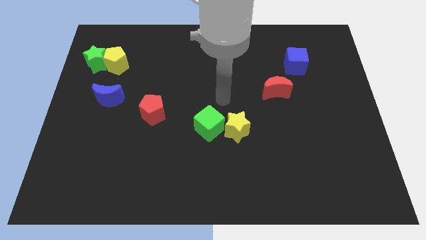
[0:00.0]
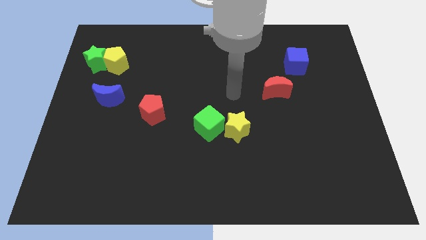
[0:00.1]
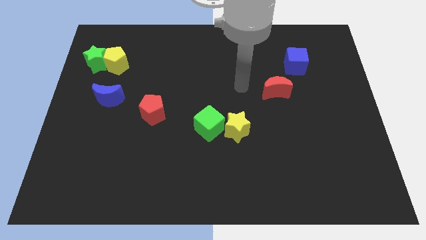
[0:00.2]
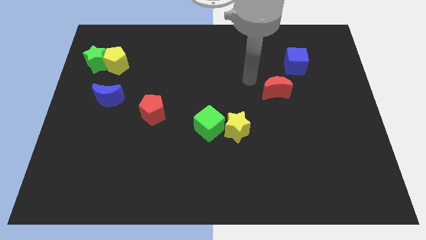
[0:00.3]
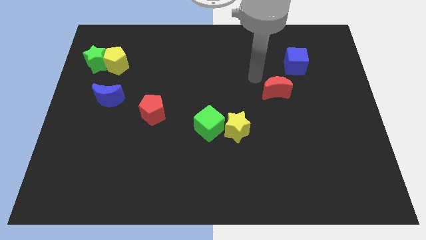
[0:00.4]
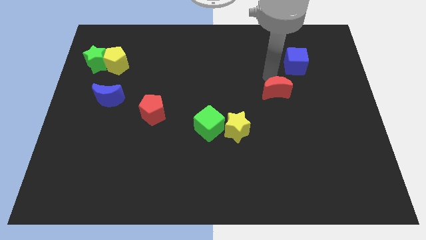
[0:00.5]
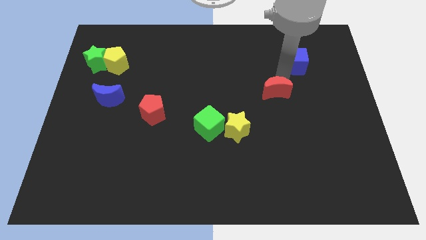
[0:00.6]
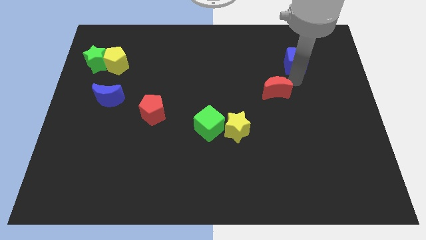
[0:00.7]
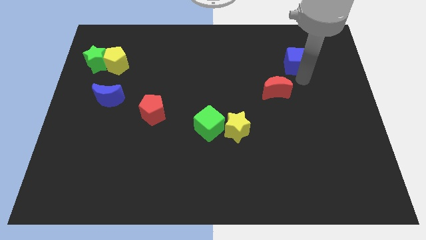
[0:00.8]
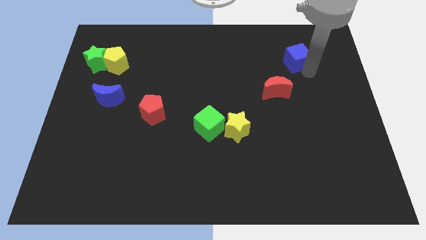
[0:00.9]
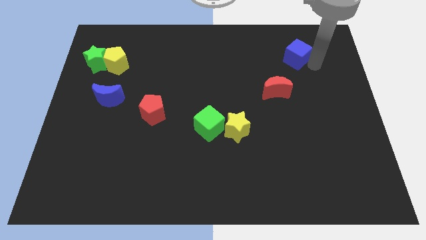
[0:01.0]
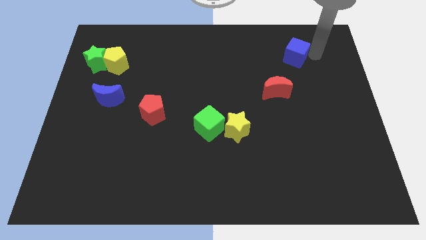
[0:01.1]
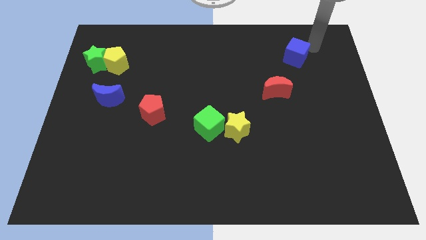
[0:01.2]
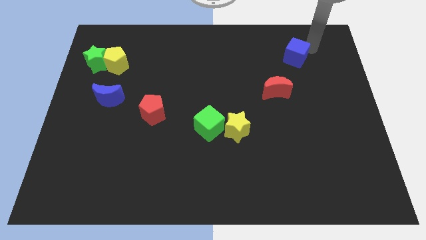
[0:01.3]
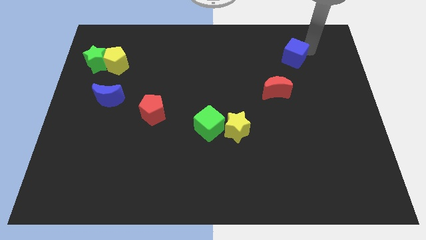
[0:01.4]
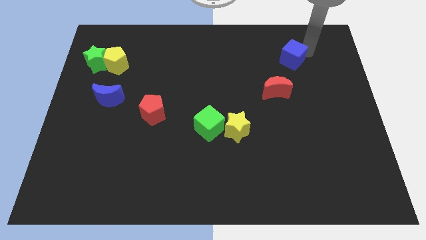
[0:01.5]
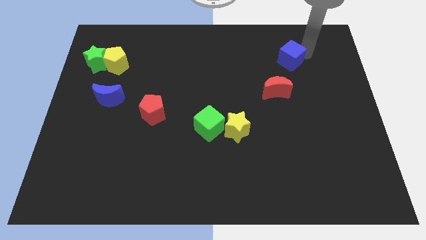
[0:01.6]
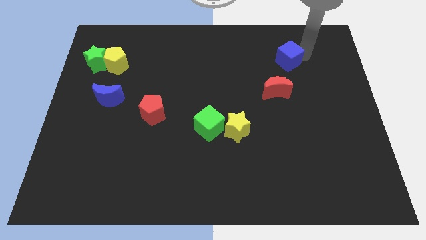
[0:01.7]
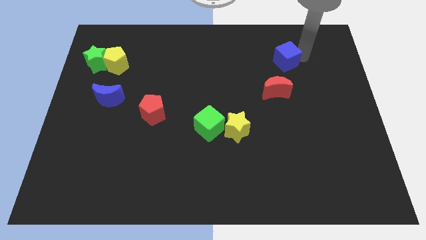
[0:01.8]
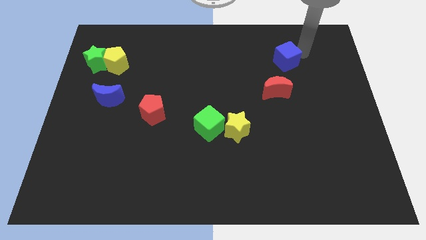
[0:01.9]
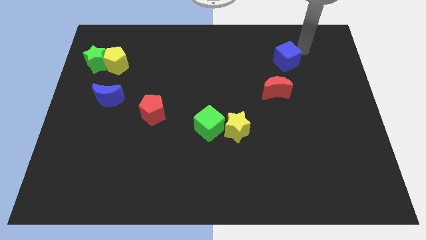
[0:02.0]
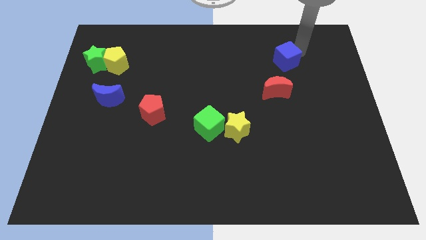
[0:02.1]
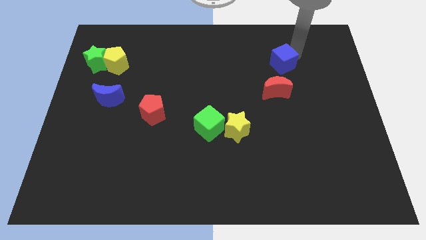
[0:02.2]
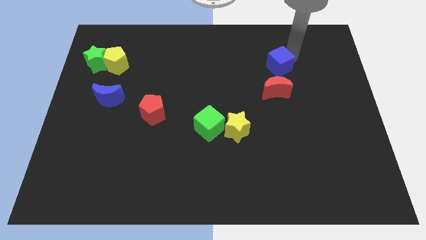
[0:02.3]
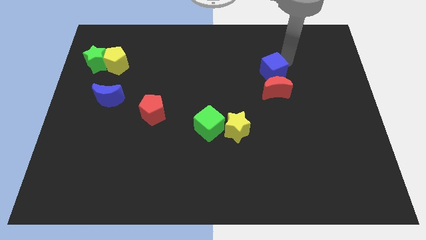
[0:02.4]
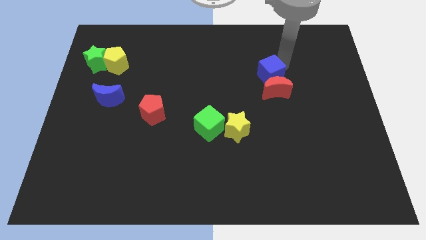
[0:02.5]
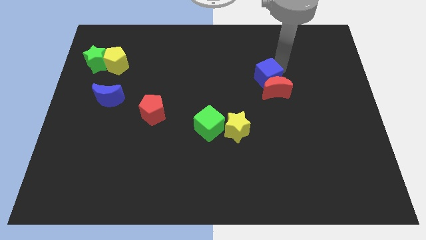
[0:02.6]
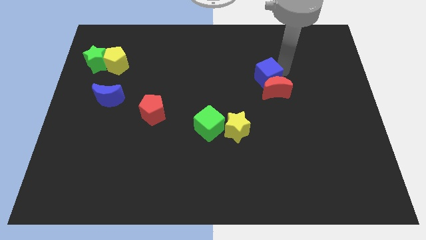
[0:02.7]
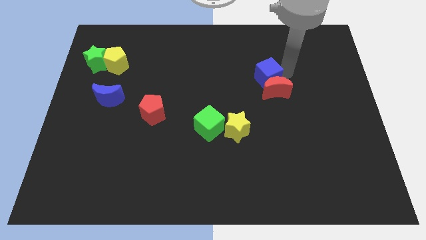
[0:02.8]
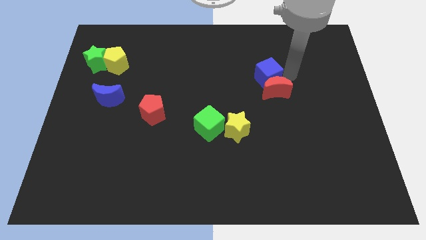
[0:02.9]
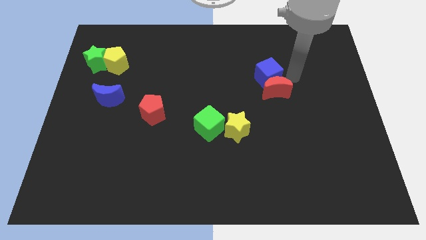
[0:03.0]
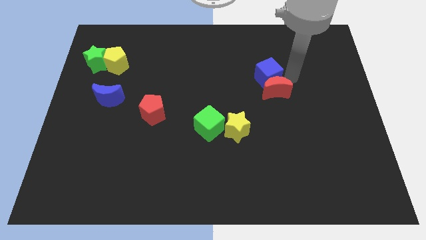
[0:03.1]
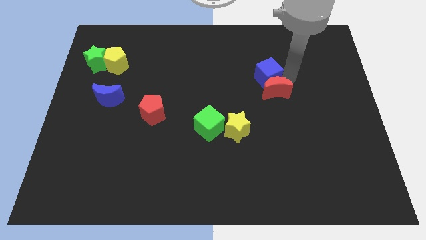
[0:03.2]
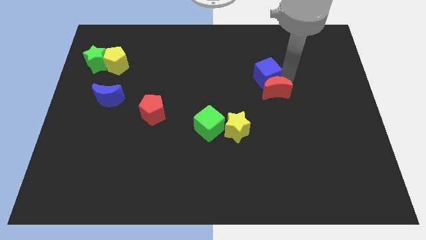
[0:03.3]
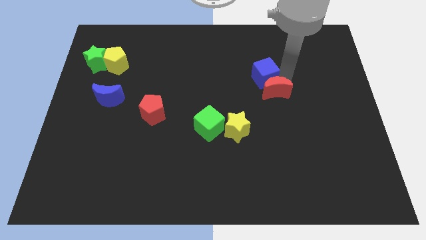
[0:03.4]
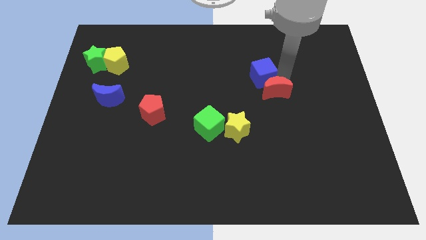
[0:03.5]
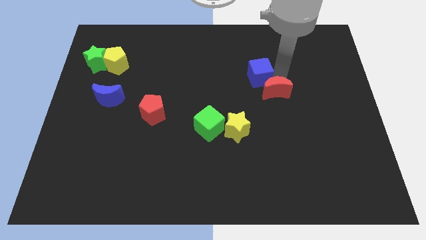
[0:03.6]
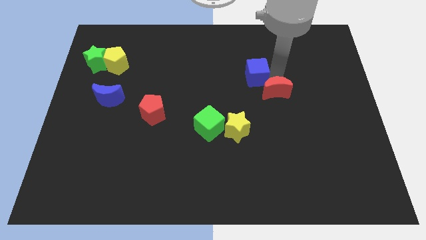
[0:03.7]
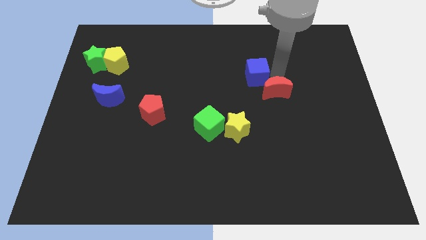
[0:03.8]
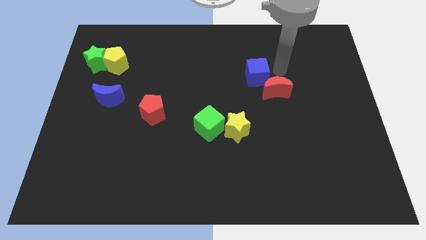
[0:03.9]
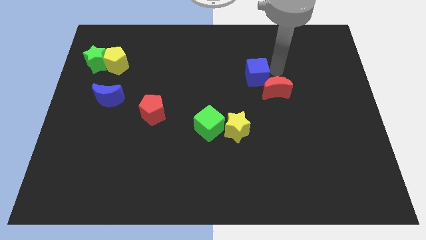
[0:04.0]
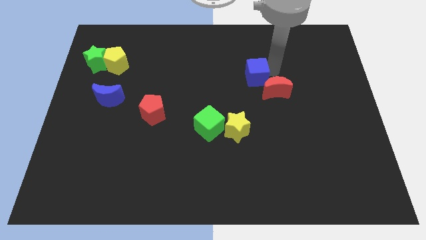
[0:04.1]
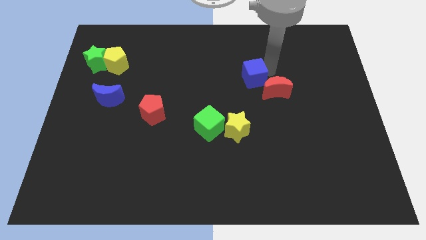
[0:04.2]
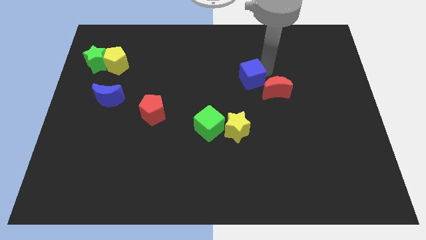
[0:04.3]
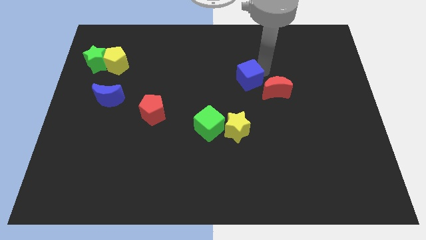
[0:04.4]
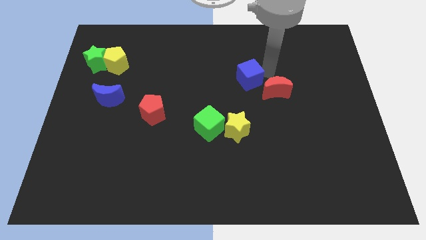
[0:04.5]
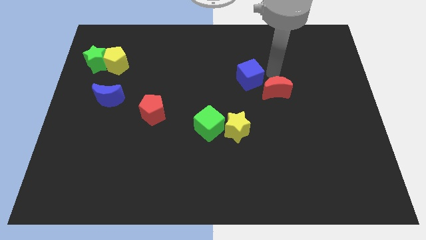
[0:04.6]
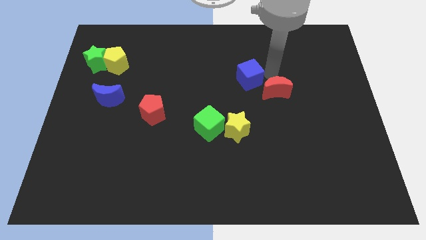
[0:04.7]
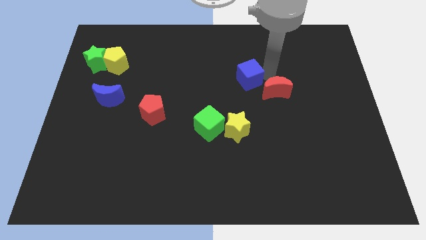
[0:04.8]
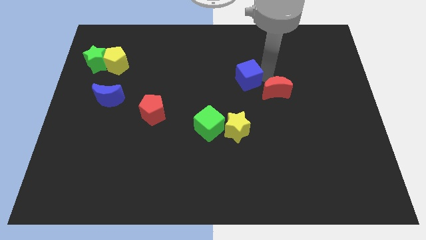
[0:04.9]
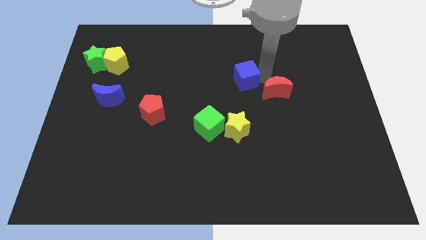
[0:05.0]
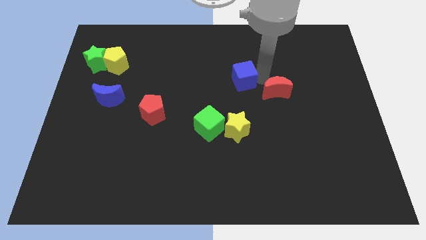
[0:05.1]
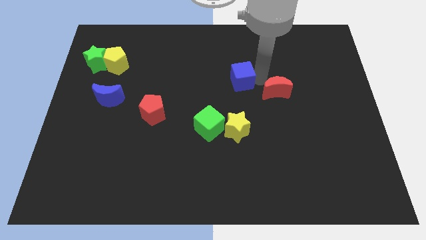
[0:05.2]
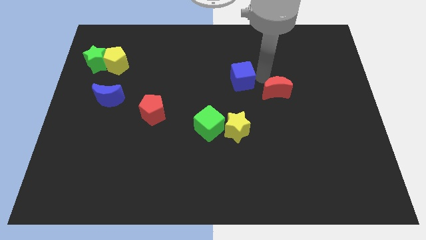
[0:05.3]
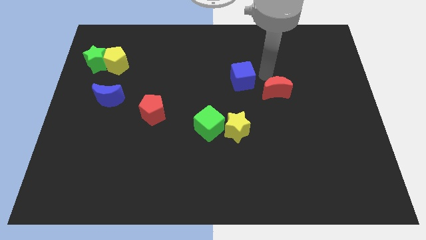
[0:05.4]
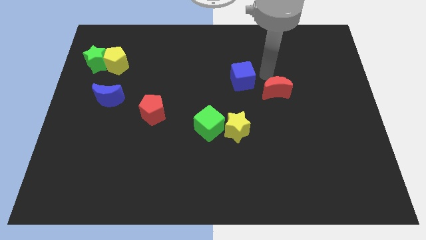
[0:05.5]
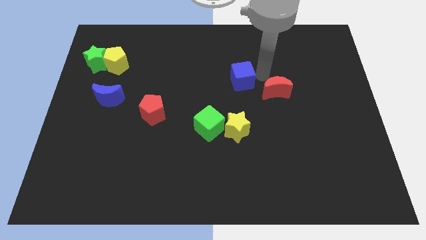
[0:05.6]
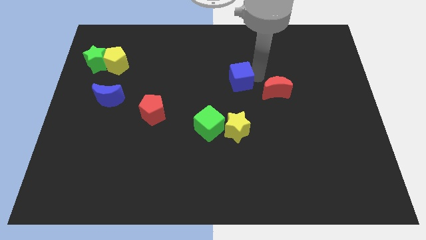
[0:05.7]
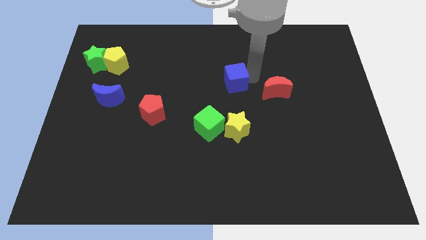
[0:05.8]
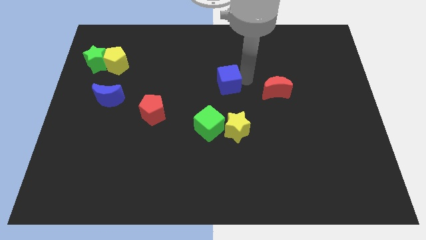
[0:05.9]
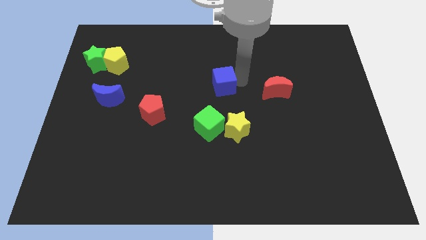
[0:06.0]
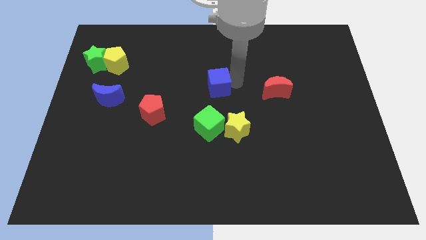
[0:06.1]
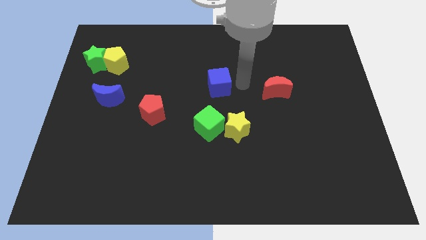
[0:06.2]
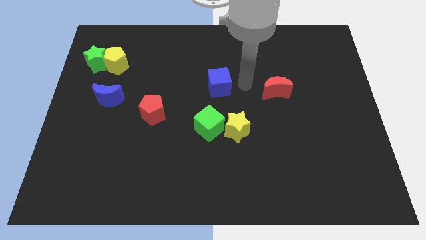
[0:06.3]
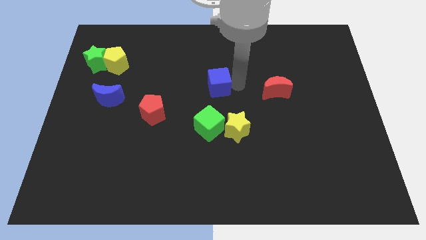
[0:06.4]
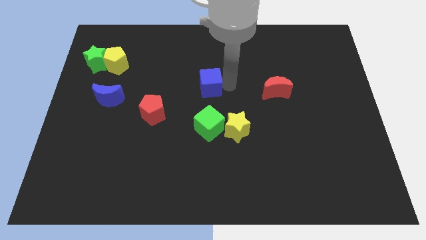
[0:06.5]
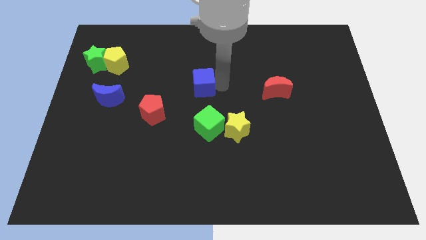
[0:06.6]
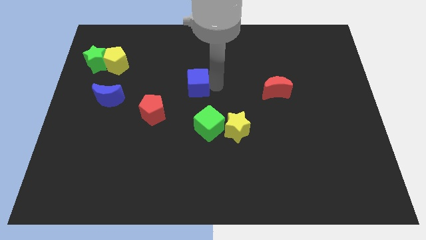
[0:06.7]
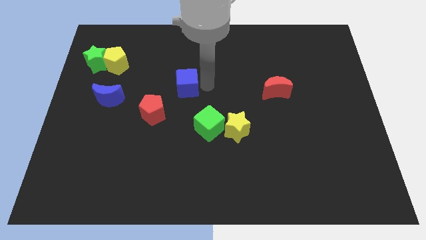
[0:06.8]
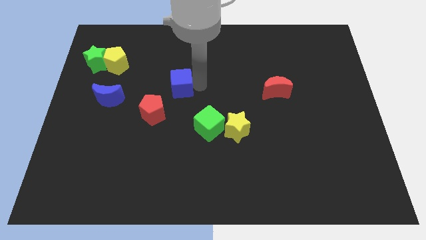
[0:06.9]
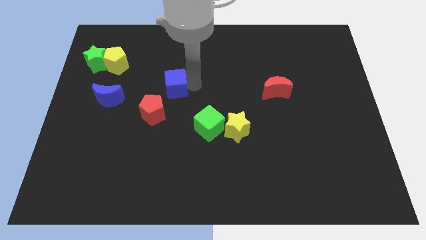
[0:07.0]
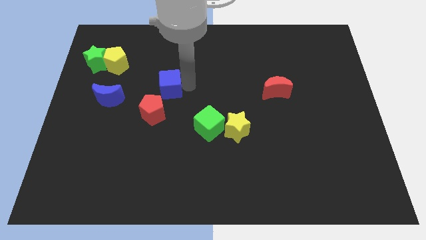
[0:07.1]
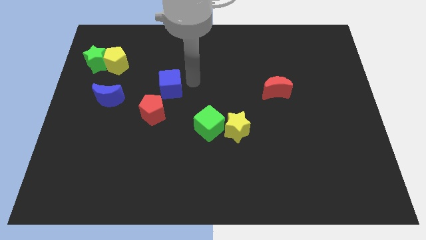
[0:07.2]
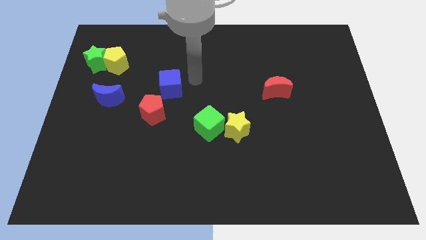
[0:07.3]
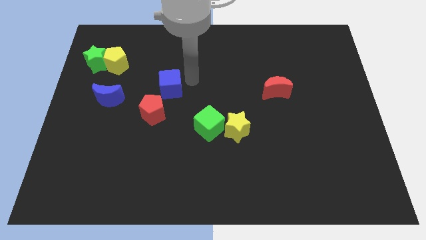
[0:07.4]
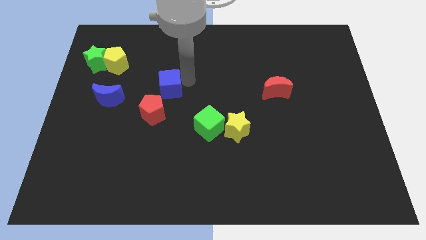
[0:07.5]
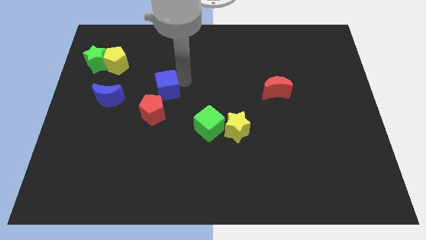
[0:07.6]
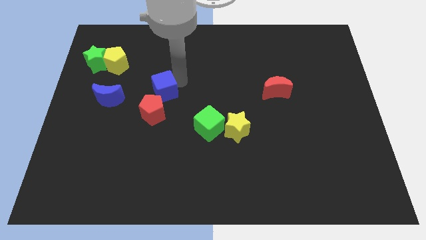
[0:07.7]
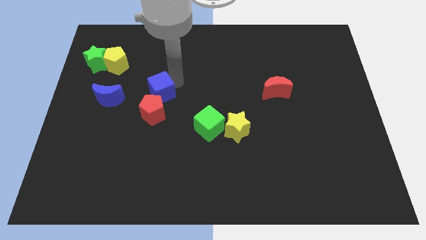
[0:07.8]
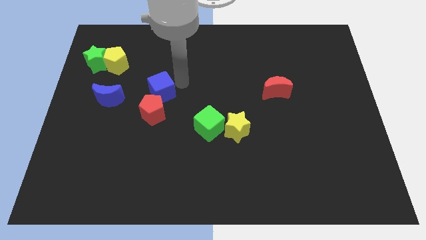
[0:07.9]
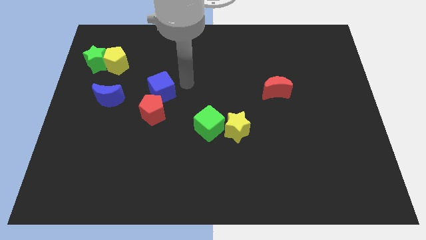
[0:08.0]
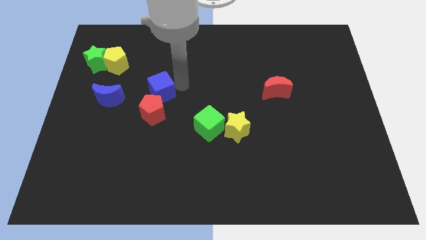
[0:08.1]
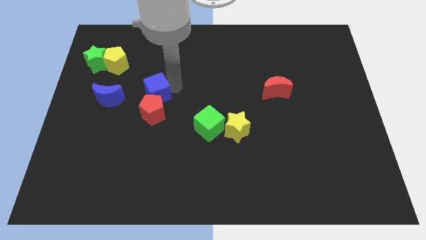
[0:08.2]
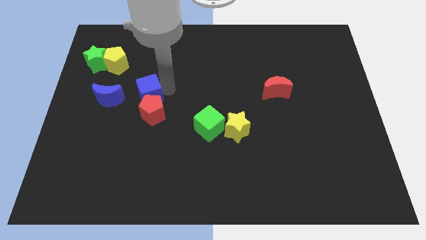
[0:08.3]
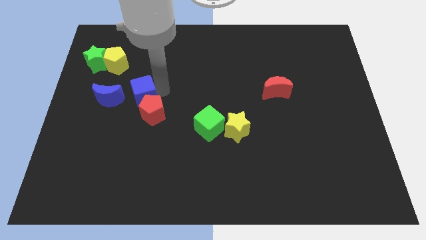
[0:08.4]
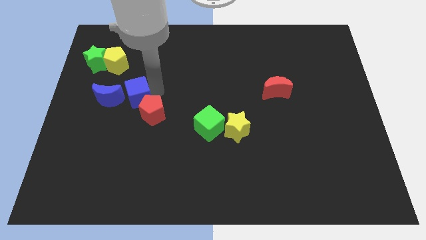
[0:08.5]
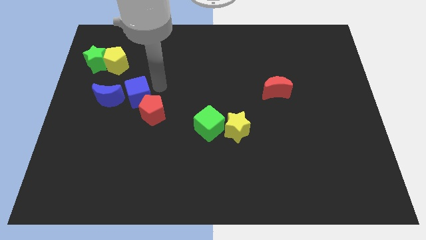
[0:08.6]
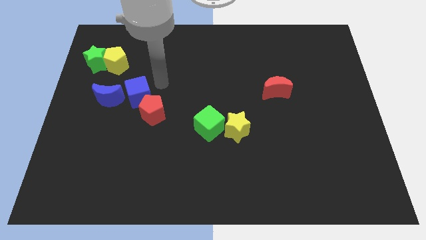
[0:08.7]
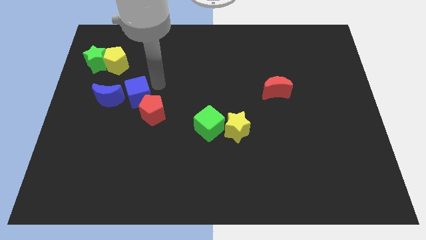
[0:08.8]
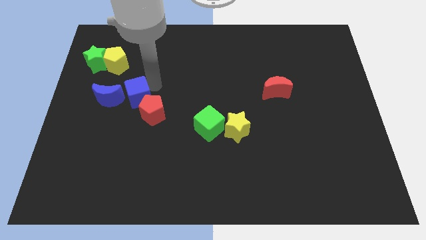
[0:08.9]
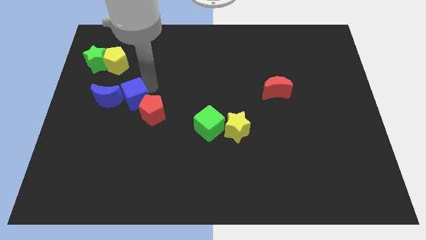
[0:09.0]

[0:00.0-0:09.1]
slide the blue cube to the left of the red pentagon
